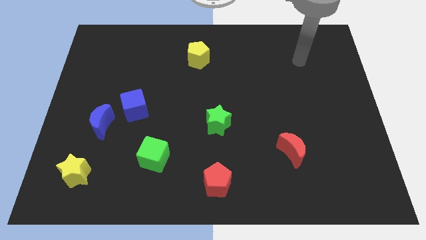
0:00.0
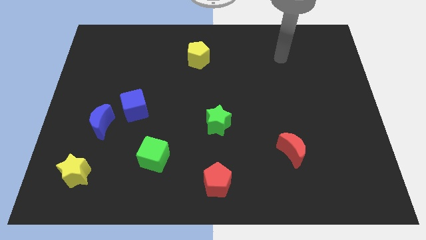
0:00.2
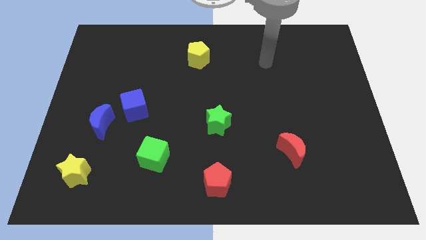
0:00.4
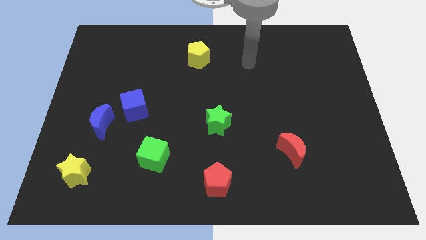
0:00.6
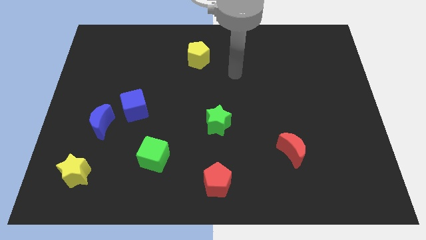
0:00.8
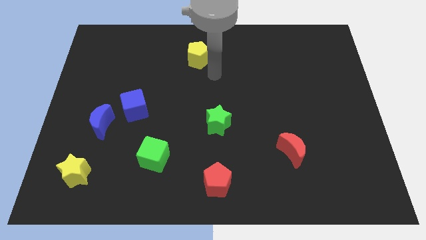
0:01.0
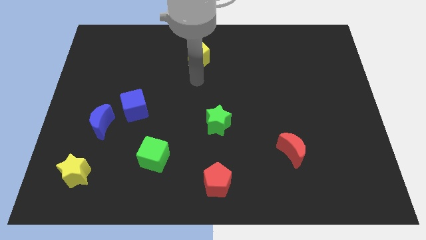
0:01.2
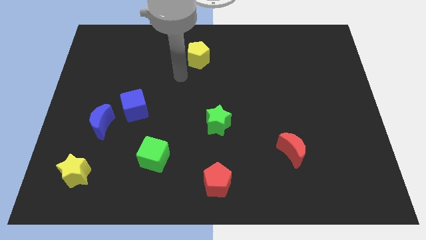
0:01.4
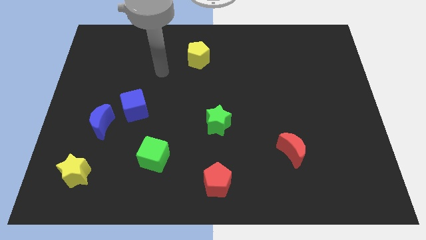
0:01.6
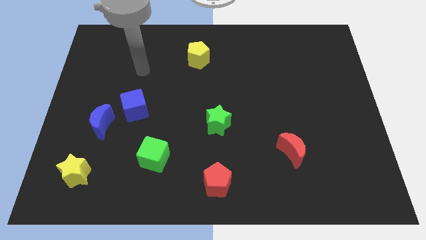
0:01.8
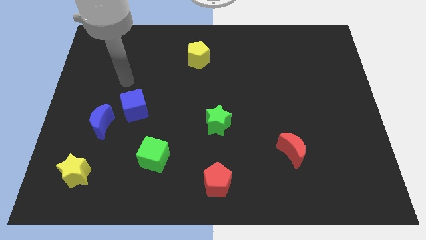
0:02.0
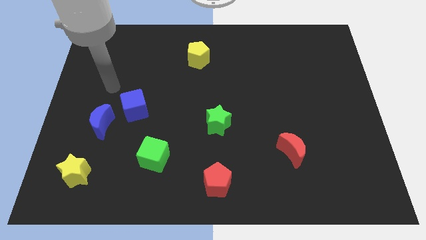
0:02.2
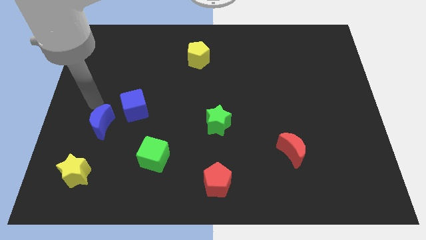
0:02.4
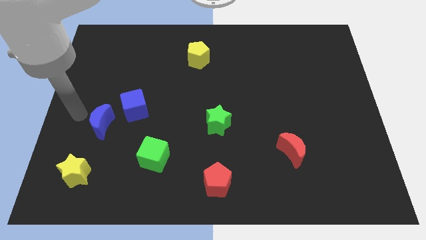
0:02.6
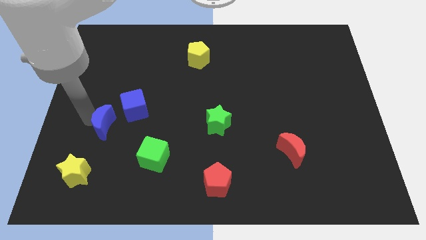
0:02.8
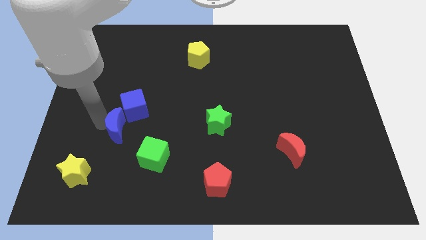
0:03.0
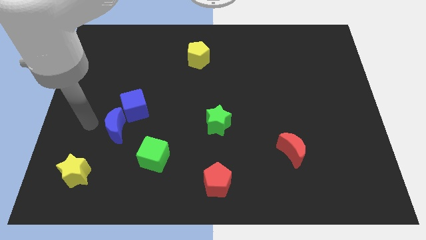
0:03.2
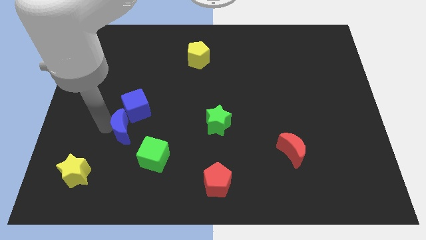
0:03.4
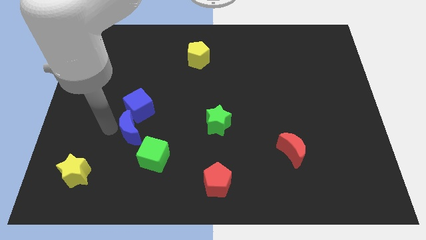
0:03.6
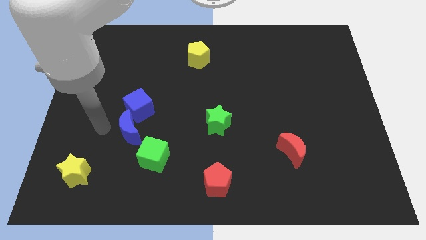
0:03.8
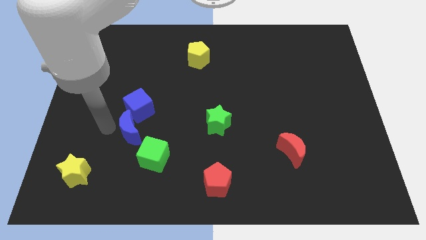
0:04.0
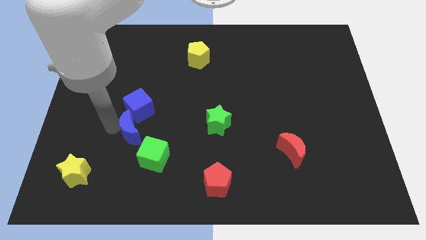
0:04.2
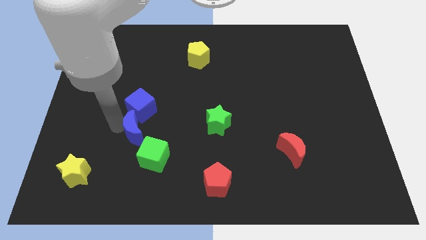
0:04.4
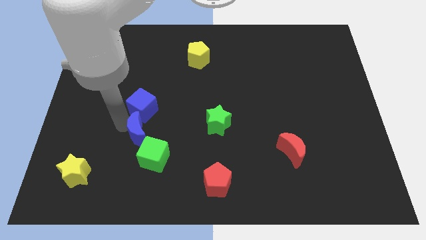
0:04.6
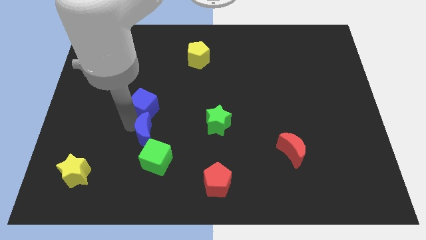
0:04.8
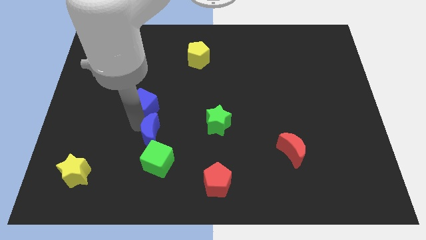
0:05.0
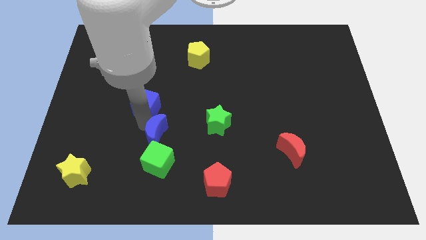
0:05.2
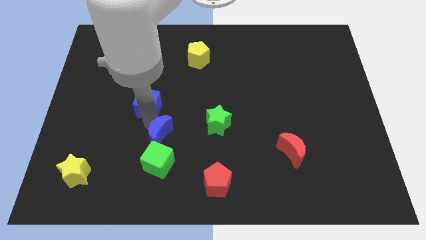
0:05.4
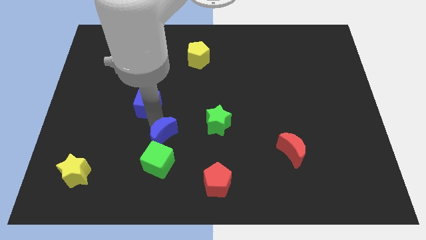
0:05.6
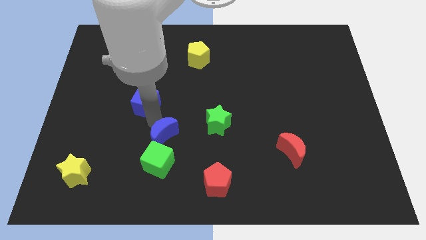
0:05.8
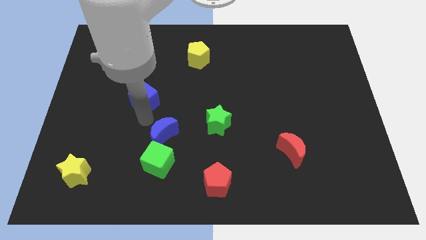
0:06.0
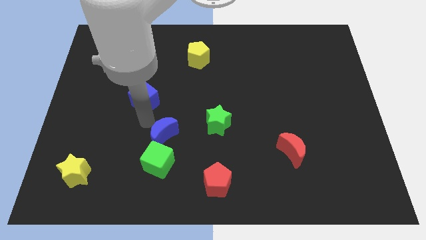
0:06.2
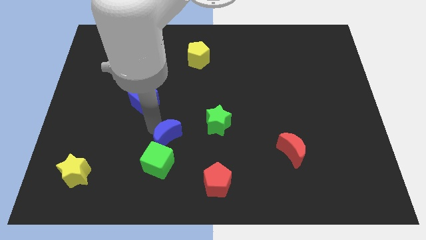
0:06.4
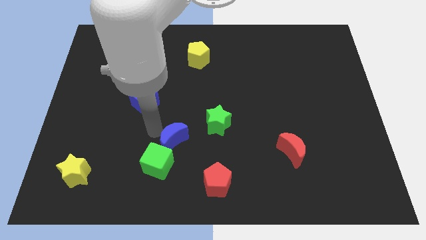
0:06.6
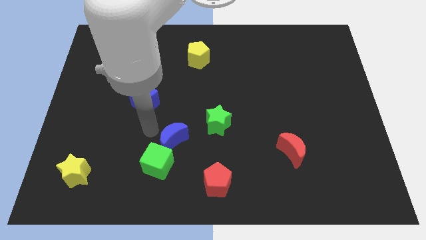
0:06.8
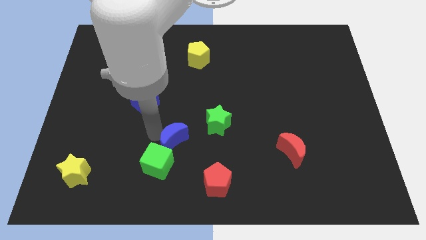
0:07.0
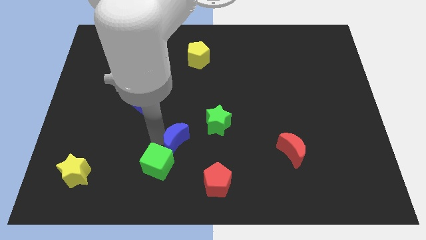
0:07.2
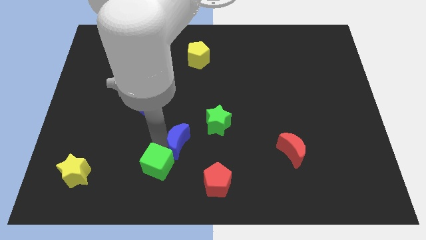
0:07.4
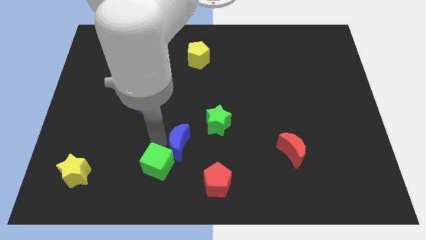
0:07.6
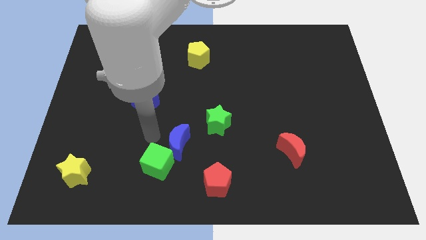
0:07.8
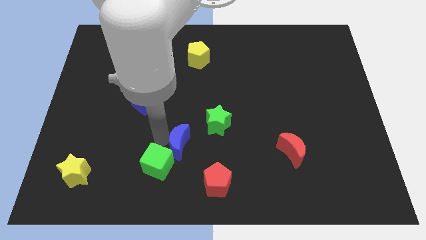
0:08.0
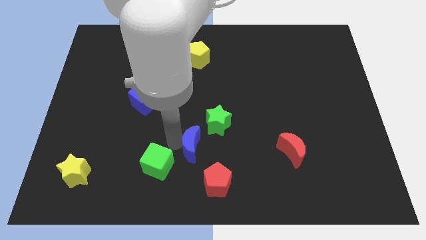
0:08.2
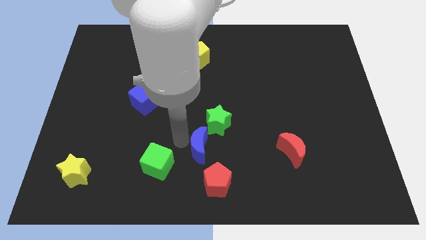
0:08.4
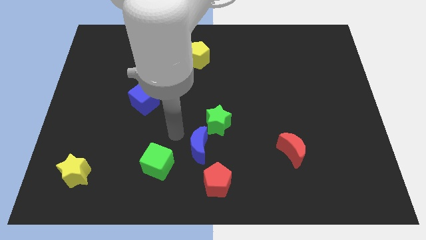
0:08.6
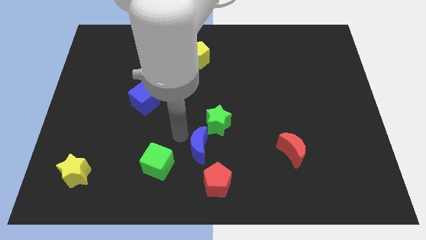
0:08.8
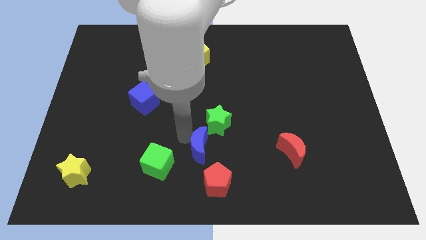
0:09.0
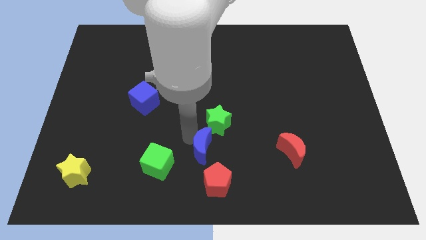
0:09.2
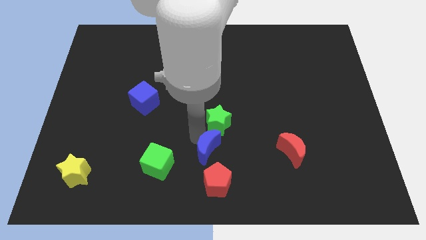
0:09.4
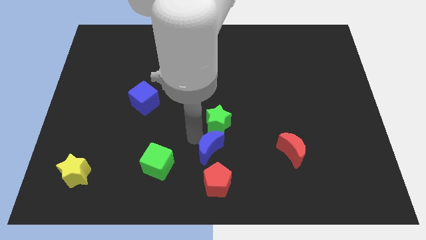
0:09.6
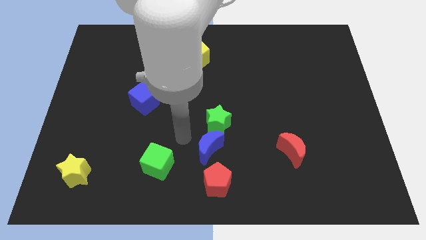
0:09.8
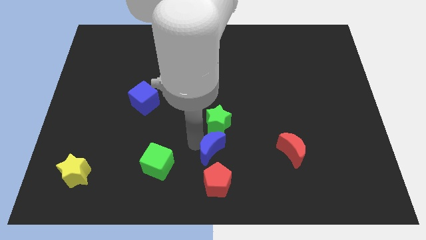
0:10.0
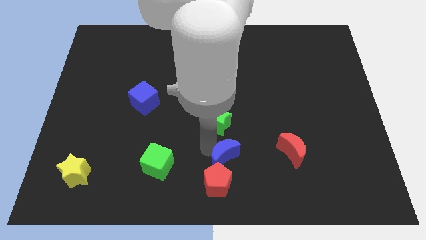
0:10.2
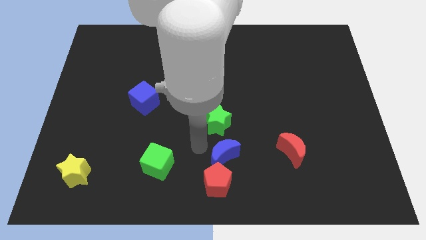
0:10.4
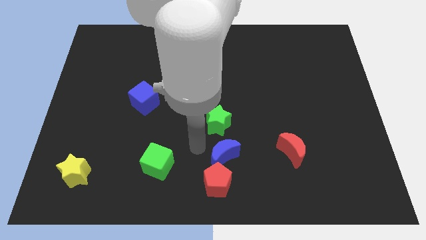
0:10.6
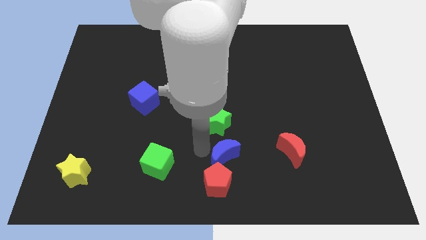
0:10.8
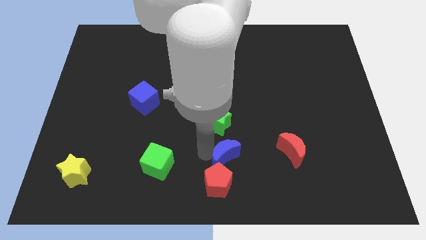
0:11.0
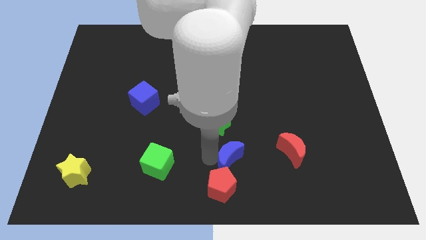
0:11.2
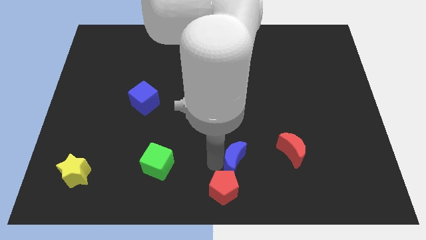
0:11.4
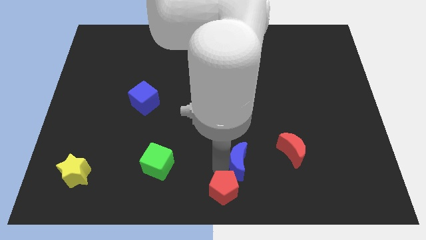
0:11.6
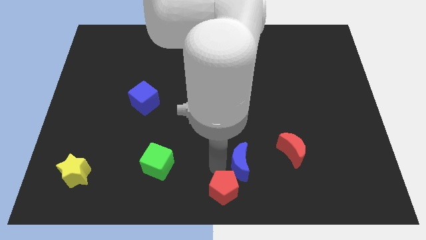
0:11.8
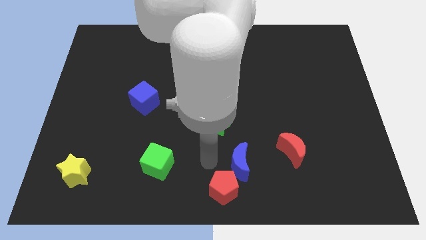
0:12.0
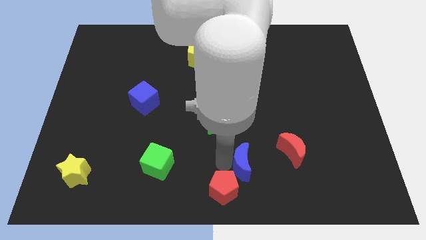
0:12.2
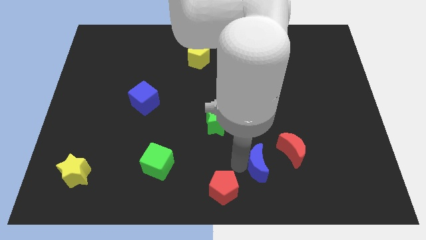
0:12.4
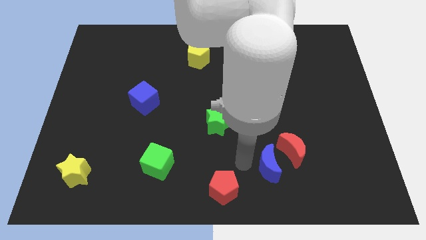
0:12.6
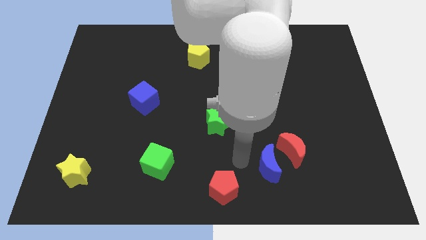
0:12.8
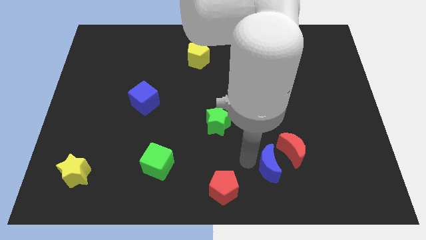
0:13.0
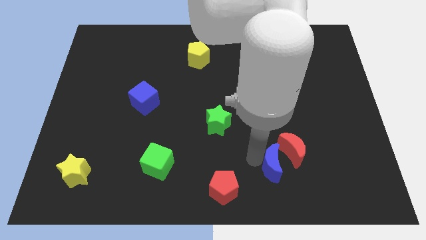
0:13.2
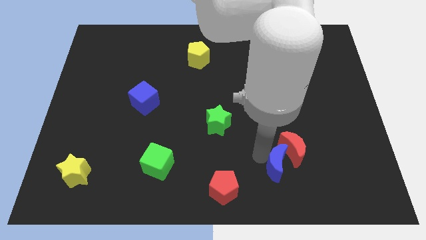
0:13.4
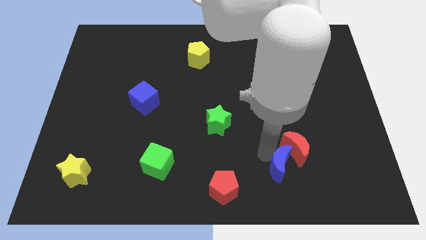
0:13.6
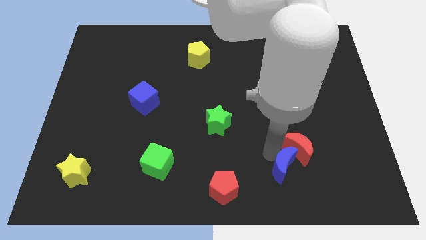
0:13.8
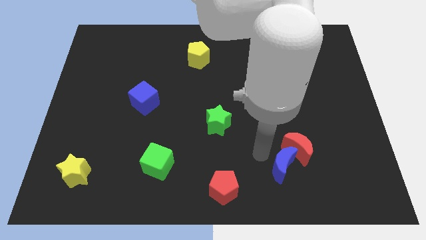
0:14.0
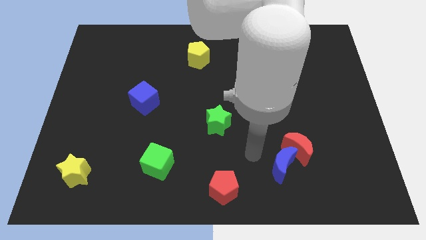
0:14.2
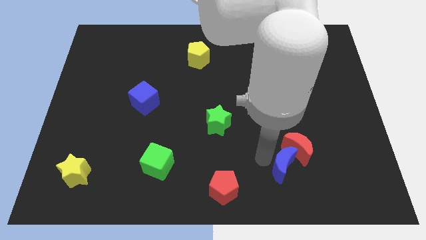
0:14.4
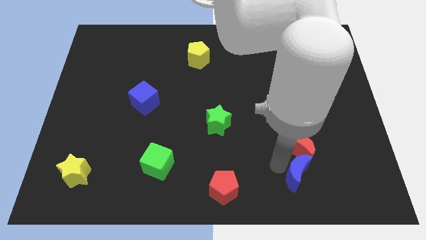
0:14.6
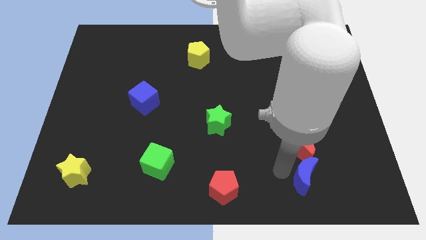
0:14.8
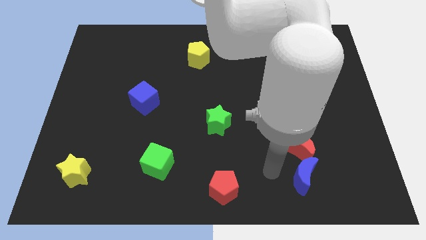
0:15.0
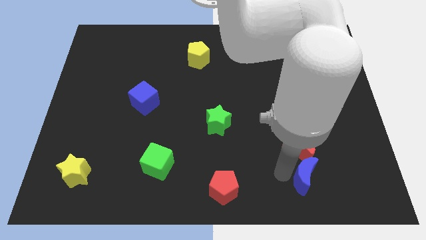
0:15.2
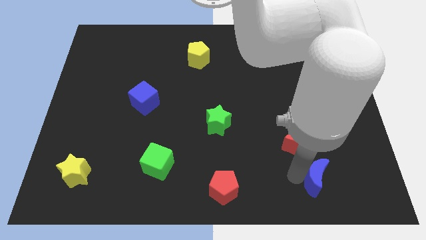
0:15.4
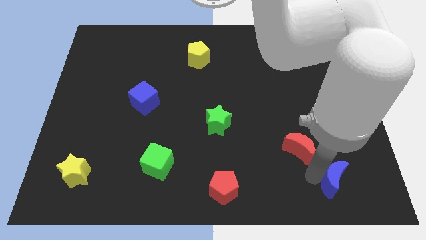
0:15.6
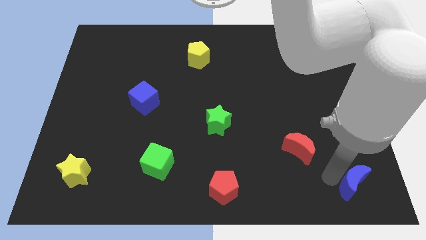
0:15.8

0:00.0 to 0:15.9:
slide the blue moon to the lower right corner
